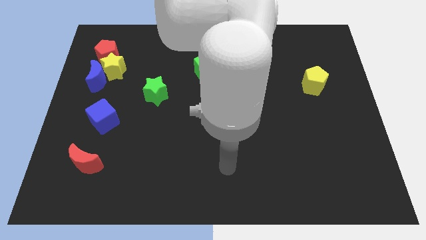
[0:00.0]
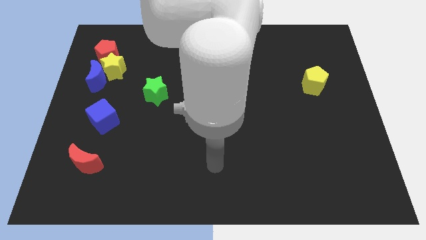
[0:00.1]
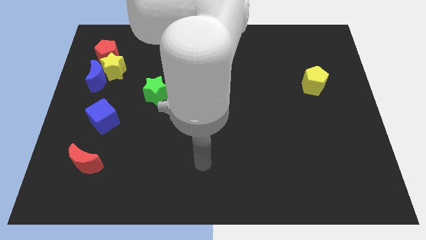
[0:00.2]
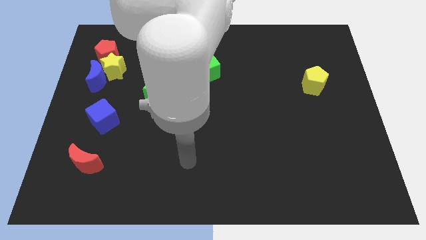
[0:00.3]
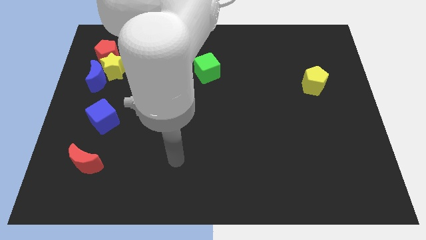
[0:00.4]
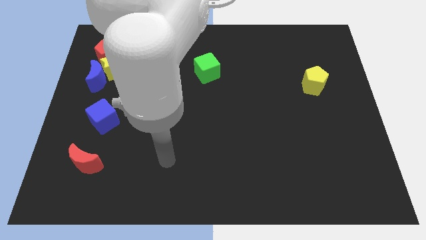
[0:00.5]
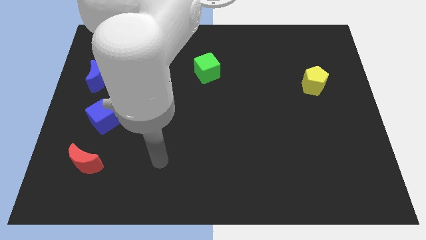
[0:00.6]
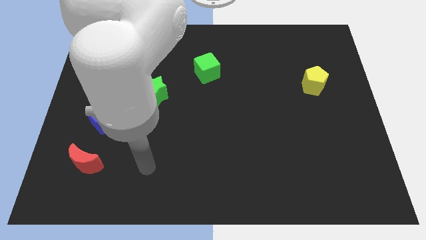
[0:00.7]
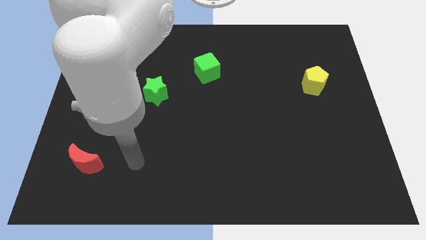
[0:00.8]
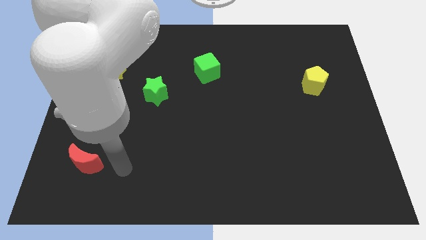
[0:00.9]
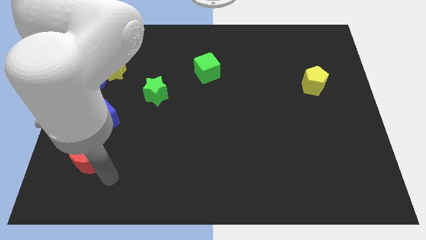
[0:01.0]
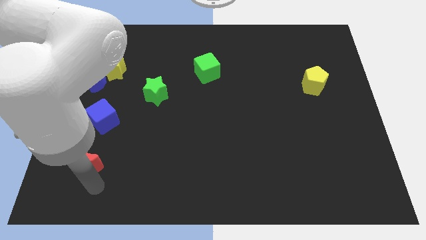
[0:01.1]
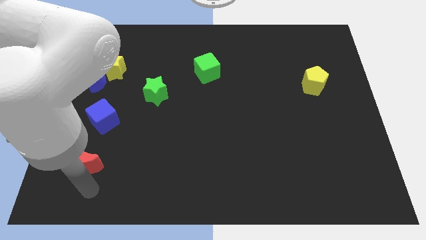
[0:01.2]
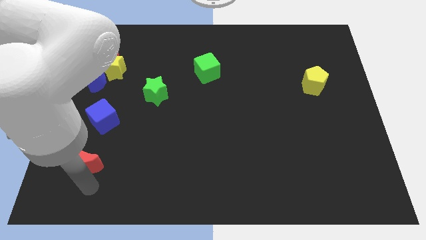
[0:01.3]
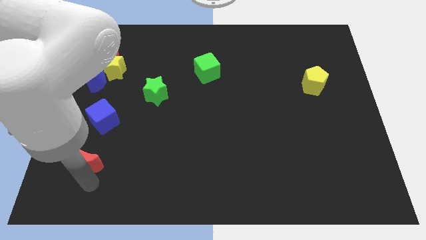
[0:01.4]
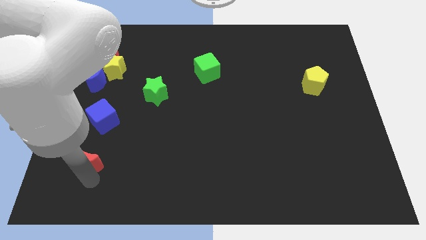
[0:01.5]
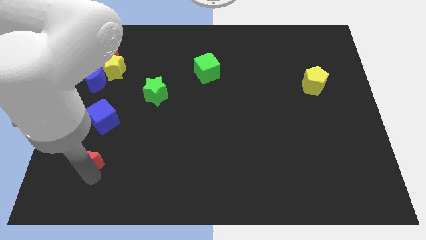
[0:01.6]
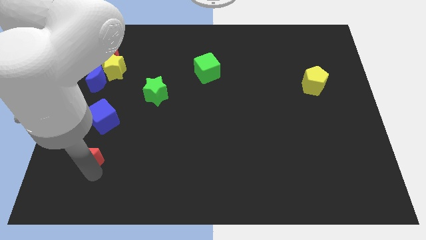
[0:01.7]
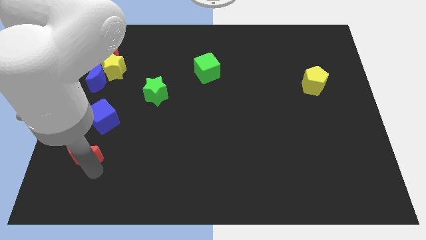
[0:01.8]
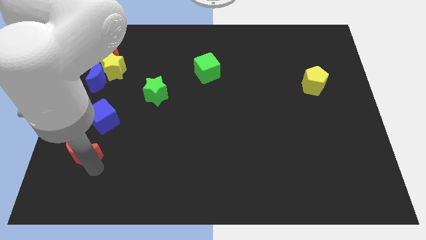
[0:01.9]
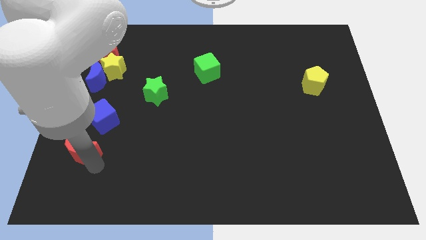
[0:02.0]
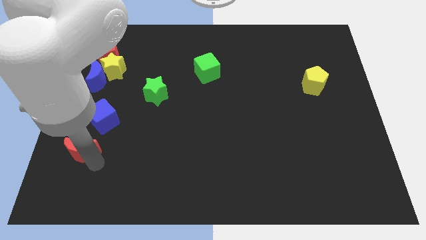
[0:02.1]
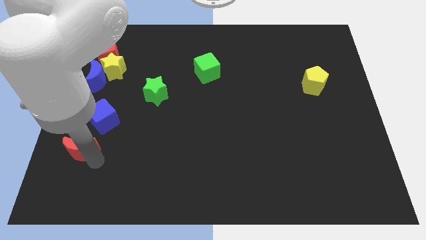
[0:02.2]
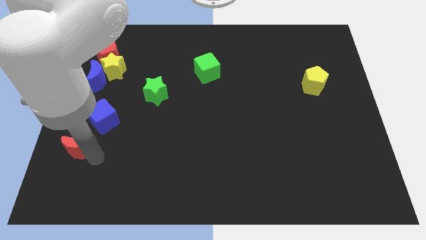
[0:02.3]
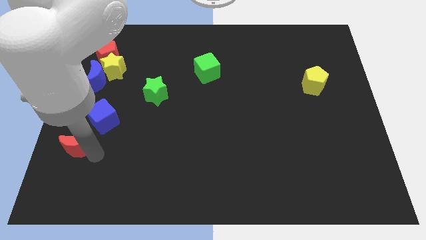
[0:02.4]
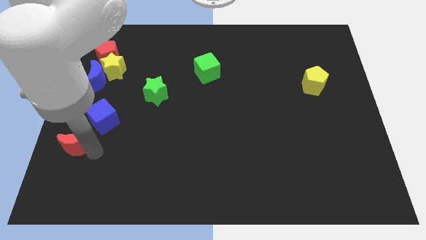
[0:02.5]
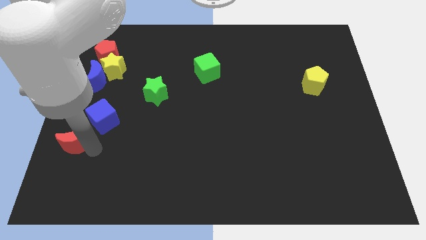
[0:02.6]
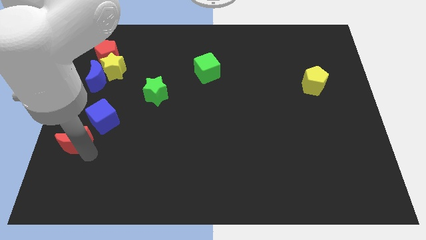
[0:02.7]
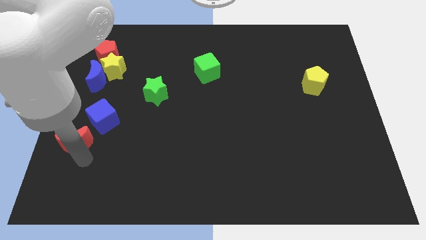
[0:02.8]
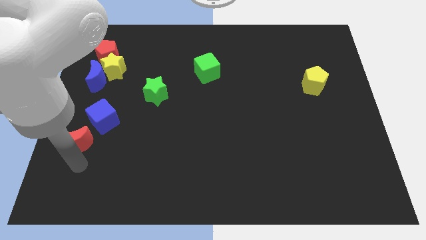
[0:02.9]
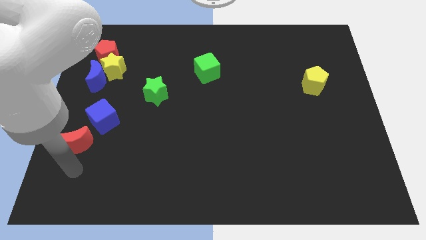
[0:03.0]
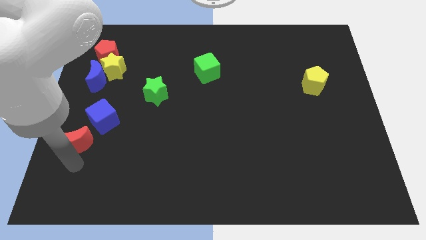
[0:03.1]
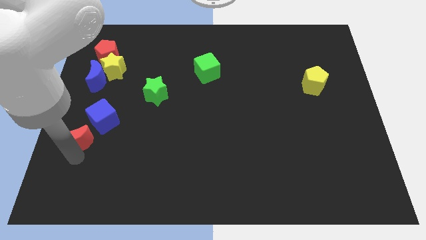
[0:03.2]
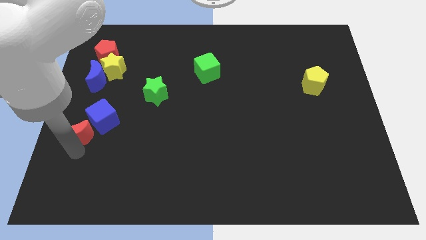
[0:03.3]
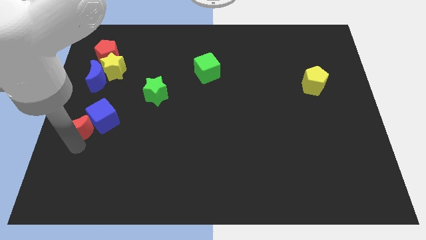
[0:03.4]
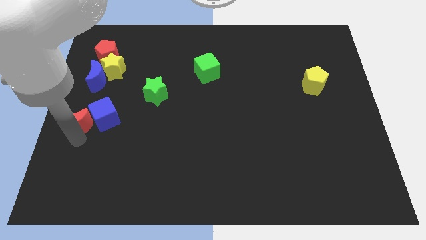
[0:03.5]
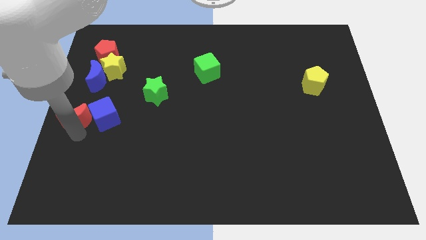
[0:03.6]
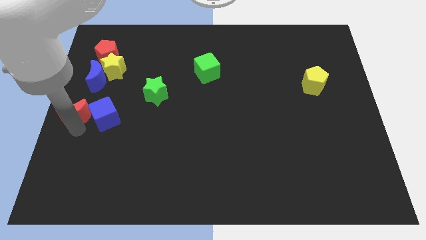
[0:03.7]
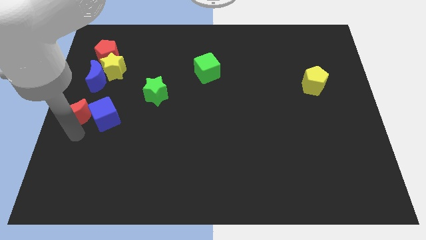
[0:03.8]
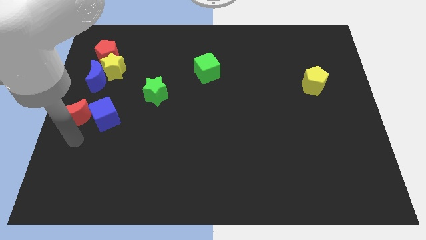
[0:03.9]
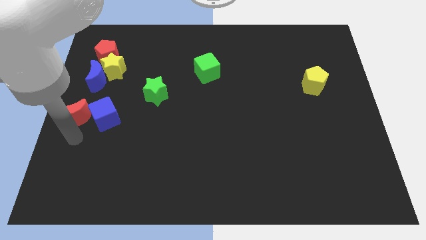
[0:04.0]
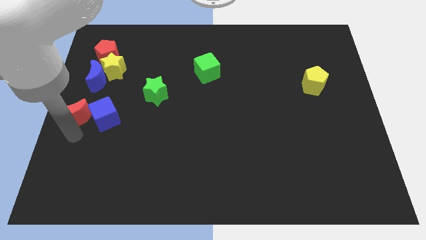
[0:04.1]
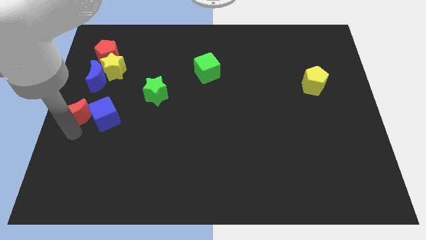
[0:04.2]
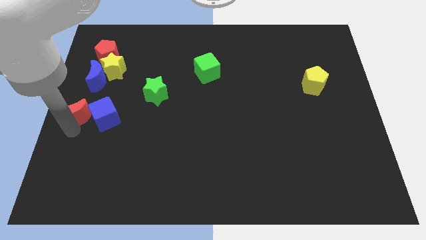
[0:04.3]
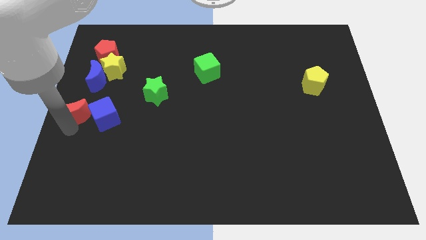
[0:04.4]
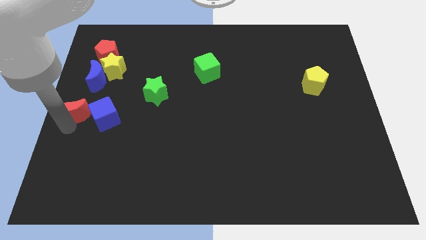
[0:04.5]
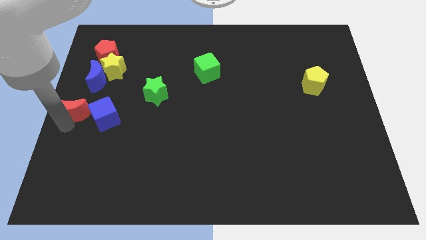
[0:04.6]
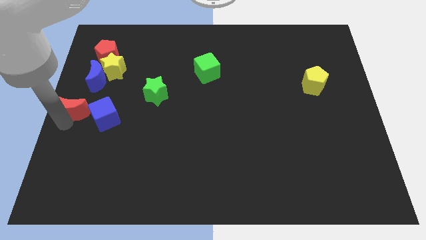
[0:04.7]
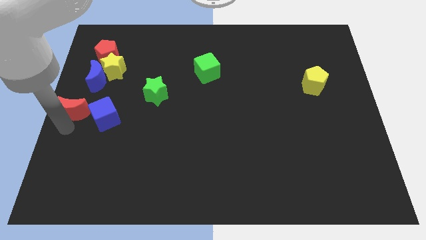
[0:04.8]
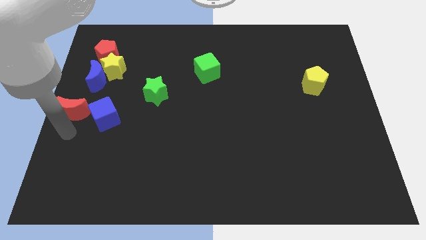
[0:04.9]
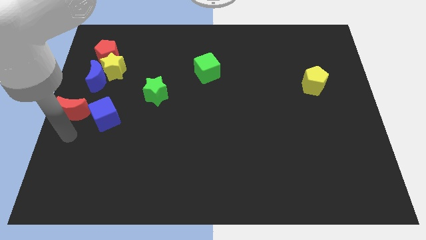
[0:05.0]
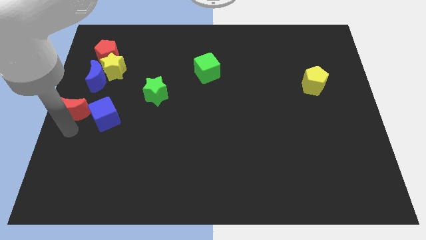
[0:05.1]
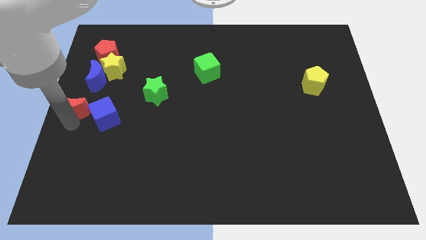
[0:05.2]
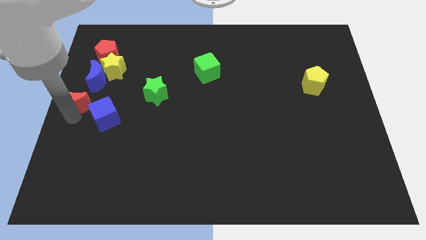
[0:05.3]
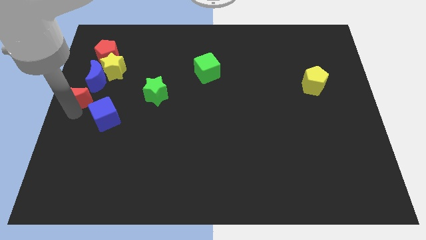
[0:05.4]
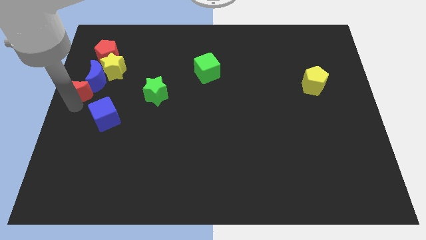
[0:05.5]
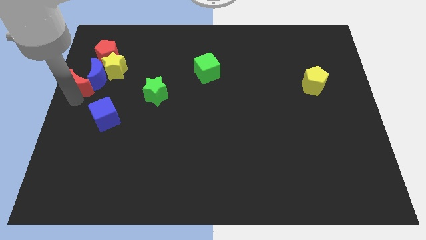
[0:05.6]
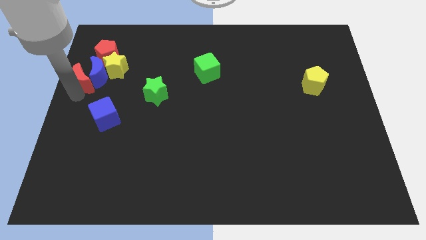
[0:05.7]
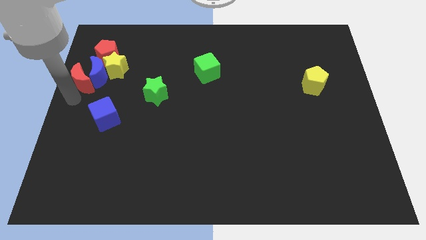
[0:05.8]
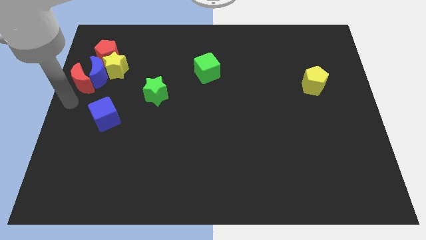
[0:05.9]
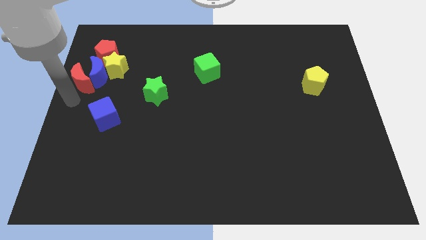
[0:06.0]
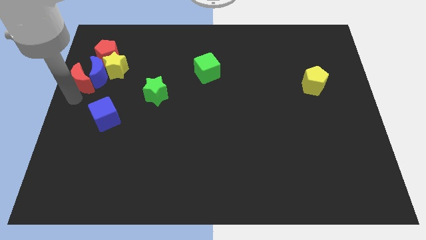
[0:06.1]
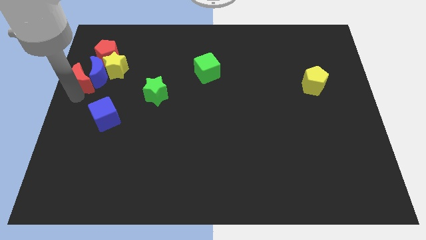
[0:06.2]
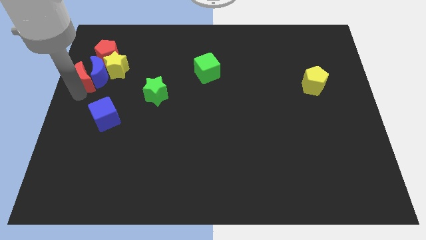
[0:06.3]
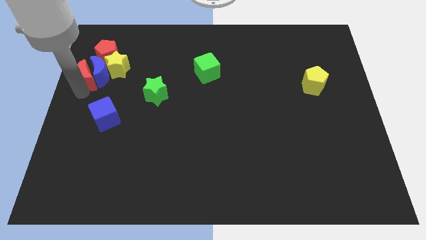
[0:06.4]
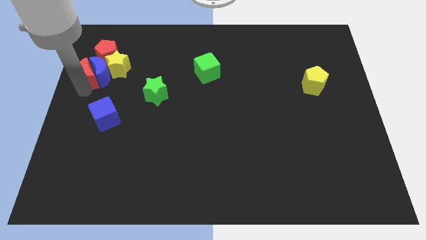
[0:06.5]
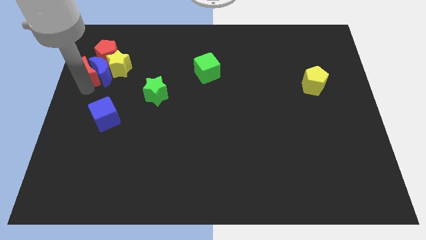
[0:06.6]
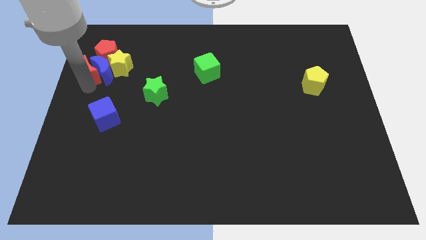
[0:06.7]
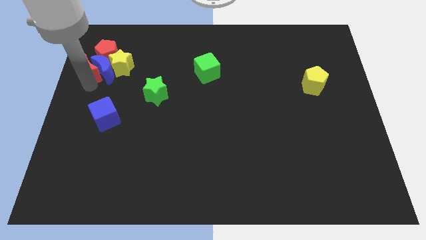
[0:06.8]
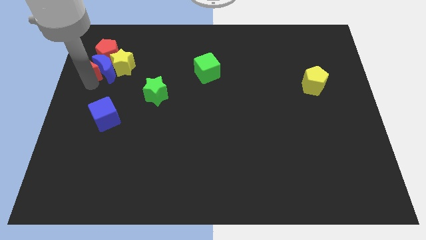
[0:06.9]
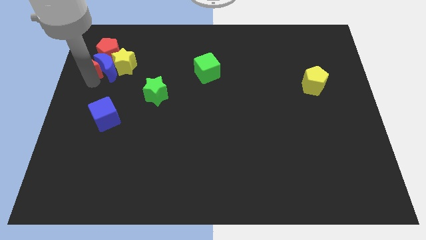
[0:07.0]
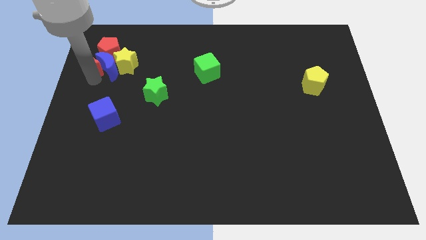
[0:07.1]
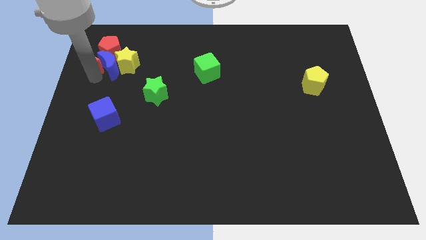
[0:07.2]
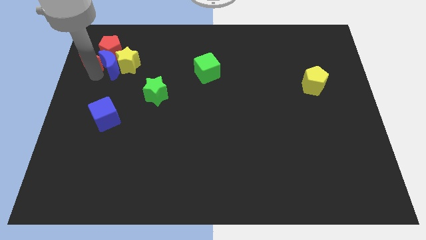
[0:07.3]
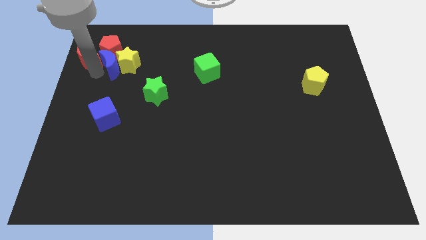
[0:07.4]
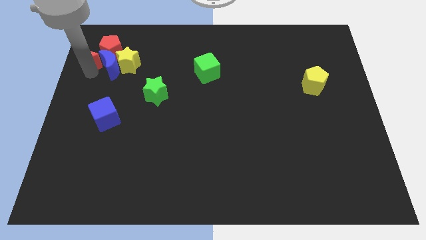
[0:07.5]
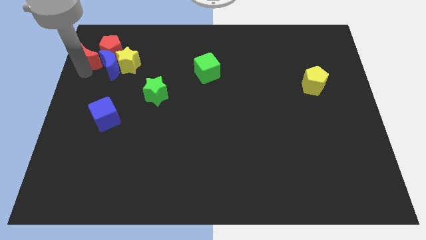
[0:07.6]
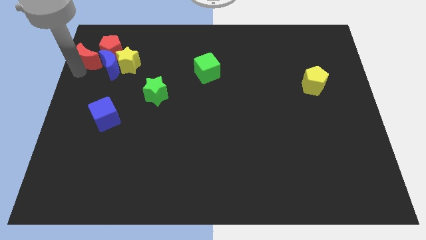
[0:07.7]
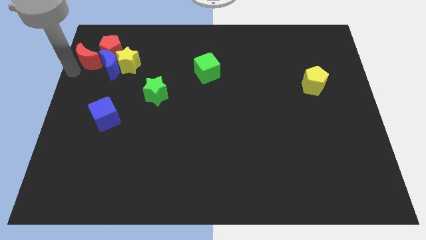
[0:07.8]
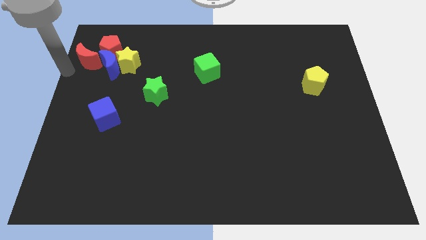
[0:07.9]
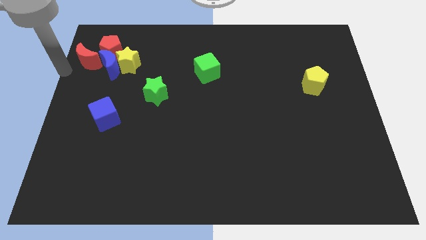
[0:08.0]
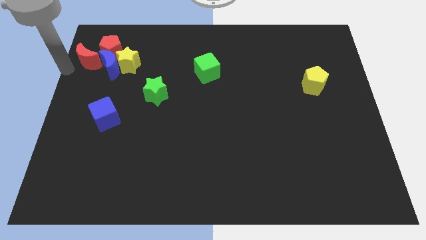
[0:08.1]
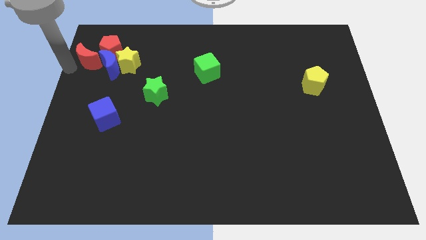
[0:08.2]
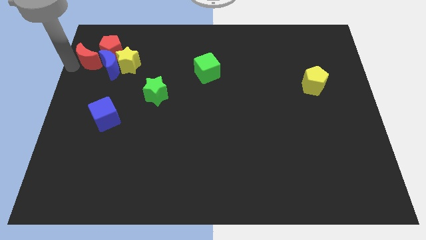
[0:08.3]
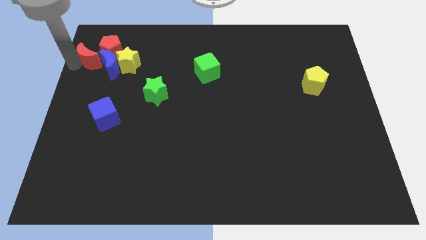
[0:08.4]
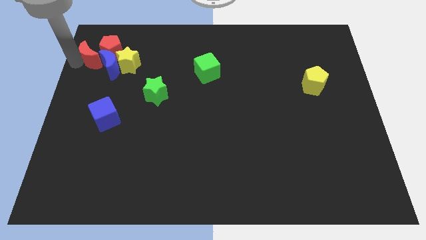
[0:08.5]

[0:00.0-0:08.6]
put the red moon to the red pentagon
